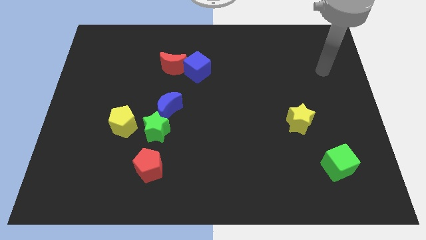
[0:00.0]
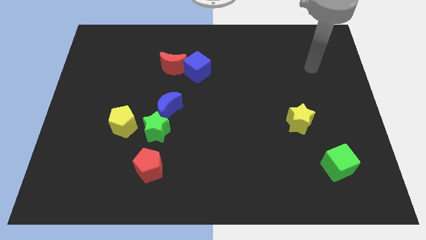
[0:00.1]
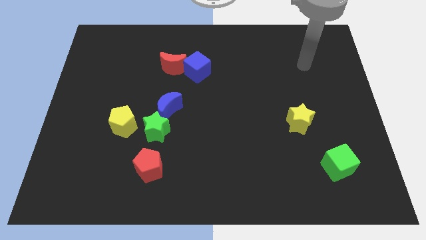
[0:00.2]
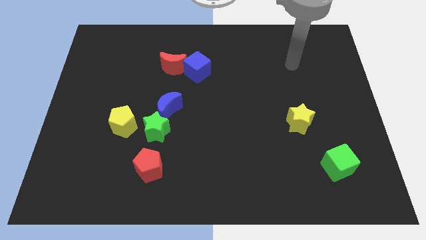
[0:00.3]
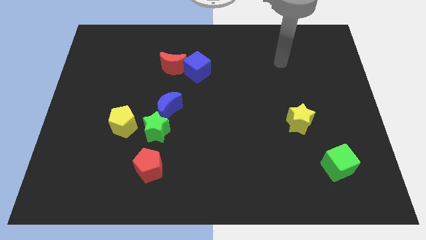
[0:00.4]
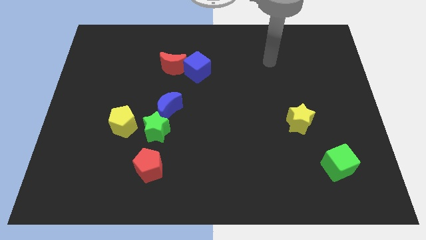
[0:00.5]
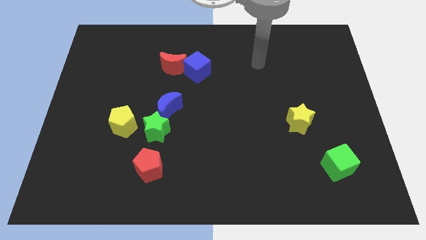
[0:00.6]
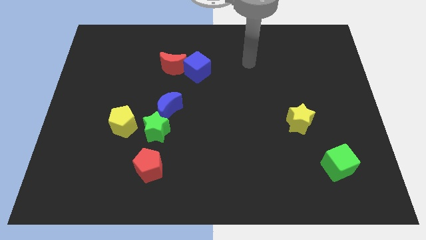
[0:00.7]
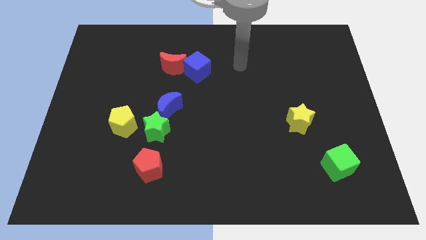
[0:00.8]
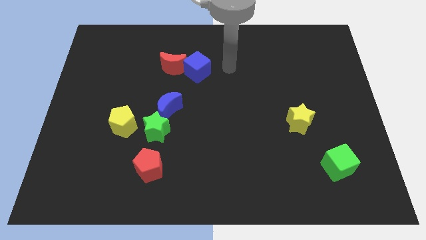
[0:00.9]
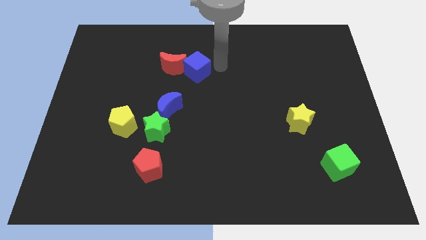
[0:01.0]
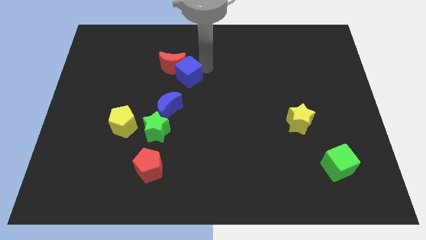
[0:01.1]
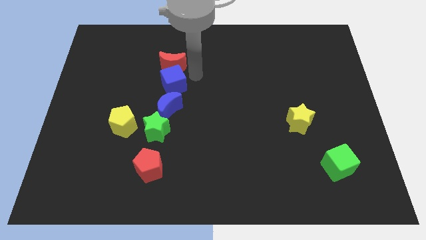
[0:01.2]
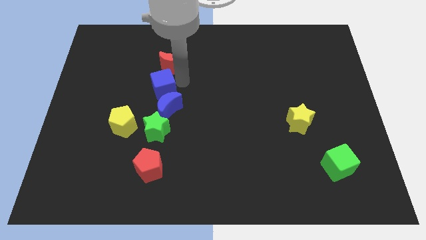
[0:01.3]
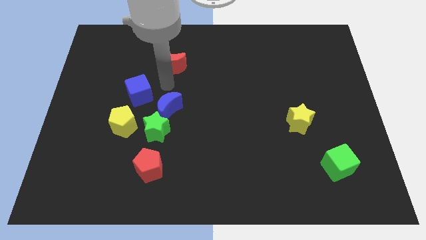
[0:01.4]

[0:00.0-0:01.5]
move the red moon away from the blue cube

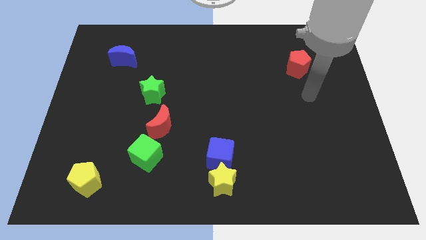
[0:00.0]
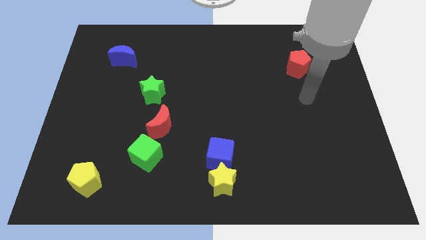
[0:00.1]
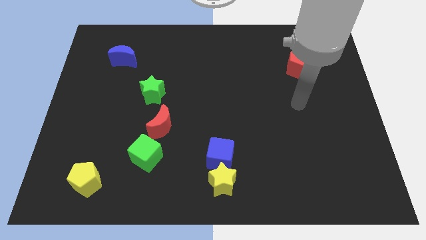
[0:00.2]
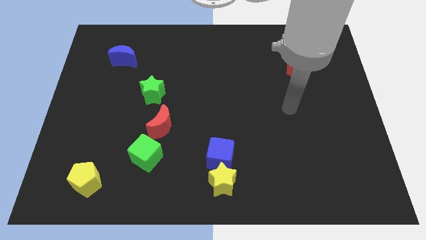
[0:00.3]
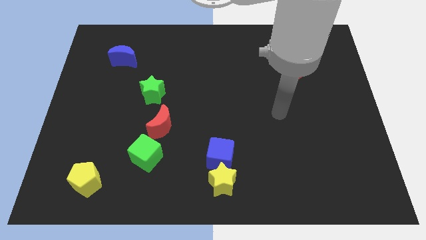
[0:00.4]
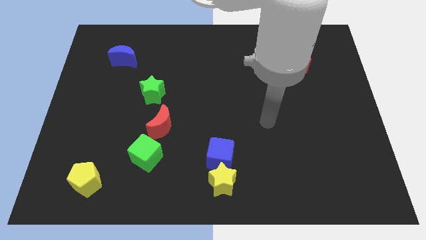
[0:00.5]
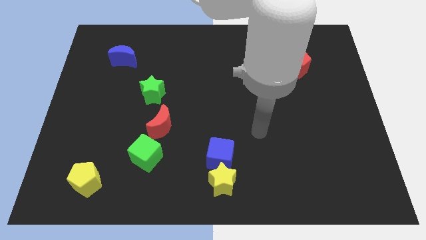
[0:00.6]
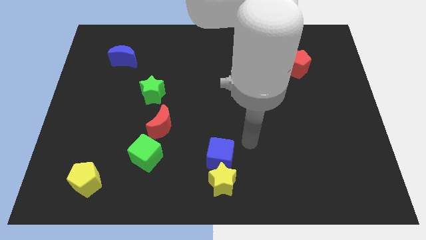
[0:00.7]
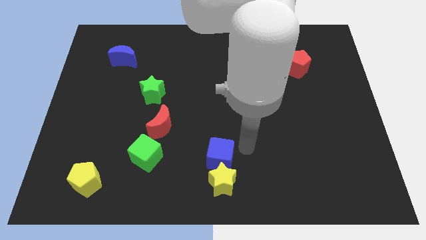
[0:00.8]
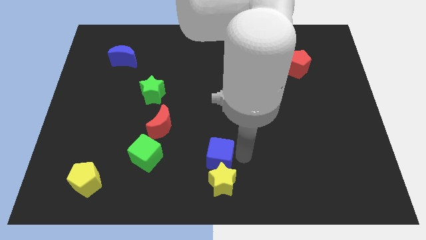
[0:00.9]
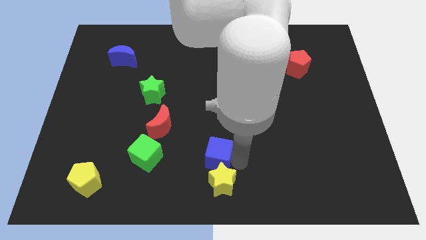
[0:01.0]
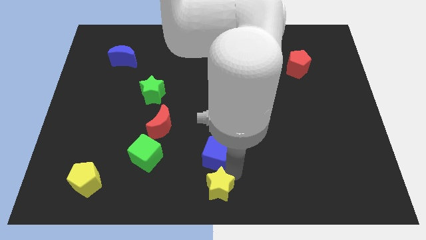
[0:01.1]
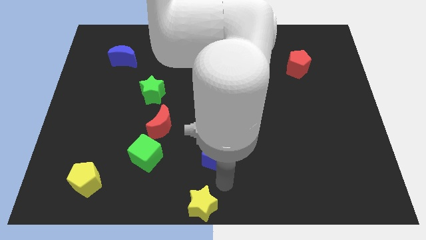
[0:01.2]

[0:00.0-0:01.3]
pull the blue cube apart from the yellow star

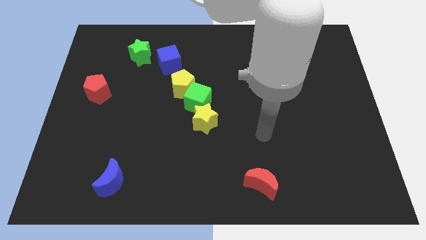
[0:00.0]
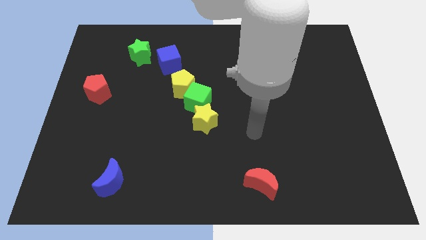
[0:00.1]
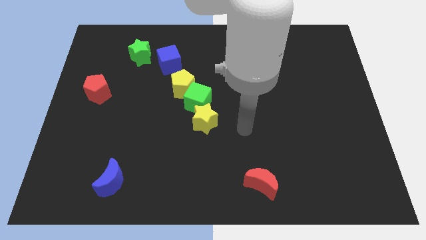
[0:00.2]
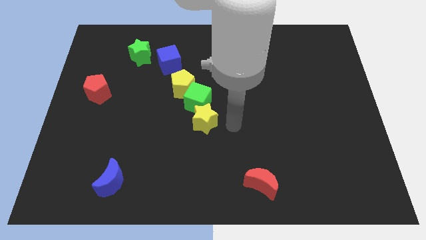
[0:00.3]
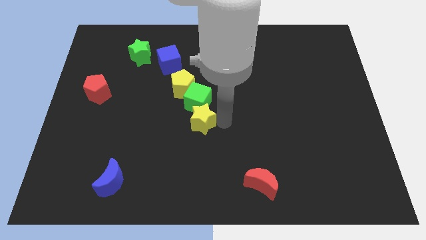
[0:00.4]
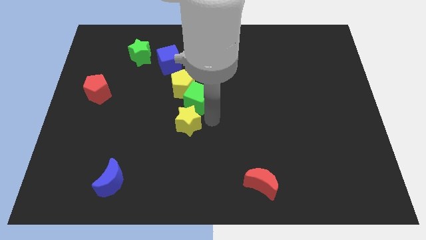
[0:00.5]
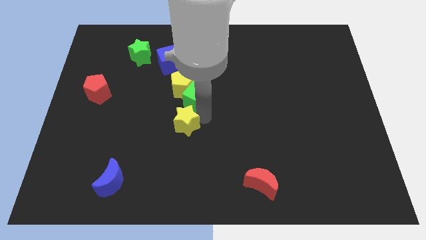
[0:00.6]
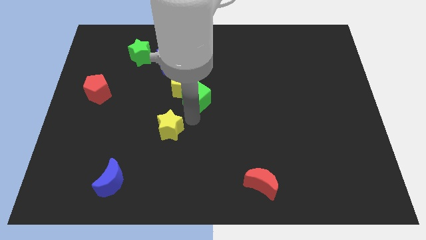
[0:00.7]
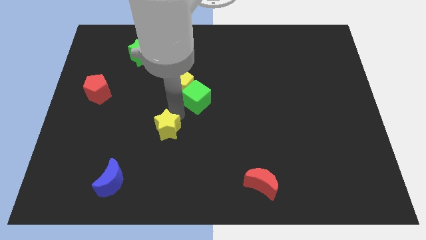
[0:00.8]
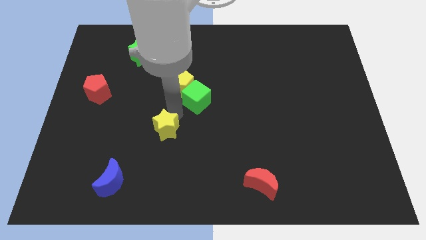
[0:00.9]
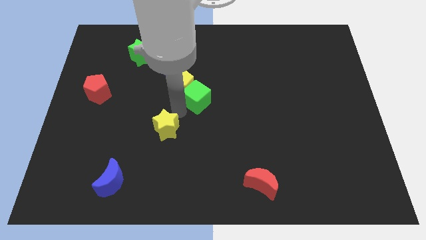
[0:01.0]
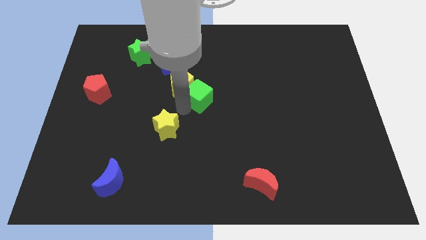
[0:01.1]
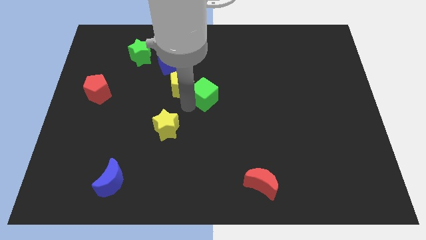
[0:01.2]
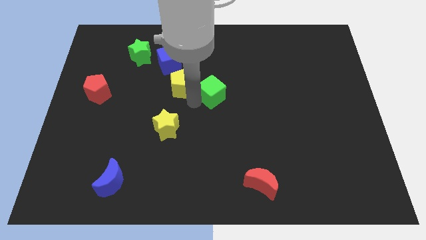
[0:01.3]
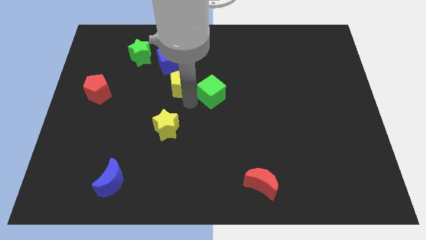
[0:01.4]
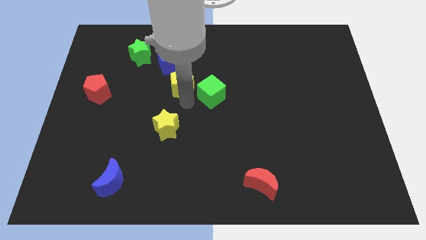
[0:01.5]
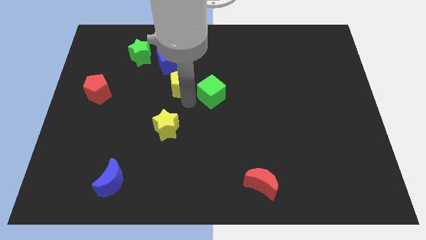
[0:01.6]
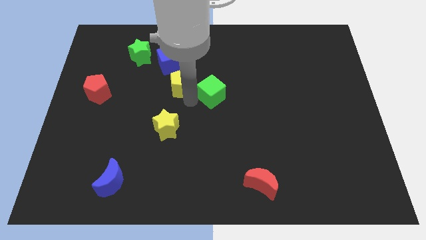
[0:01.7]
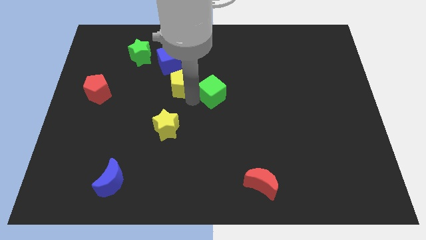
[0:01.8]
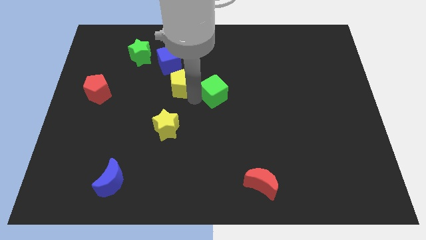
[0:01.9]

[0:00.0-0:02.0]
separate the green cube from the yellow pentagon and yellow star

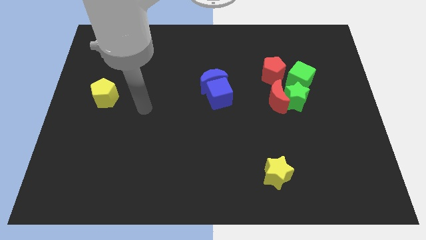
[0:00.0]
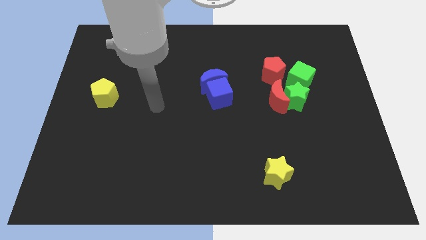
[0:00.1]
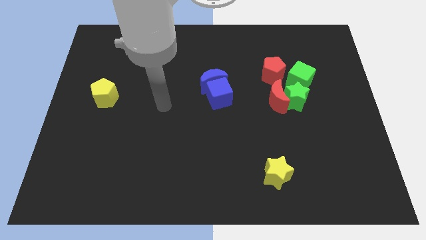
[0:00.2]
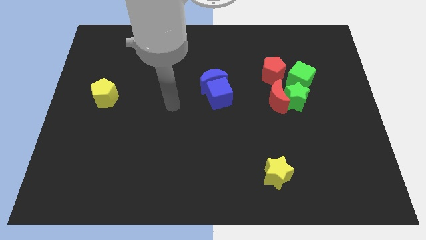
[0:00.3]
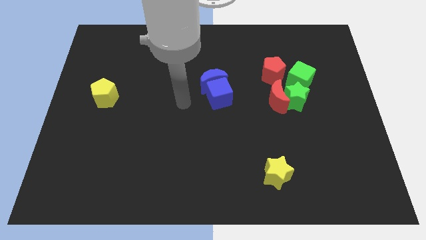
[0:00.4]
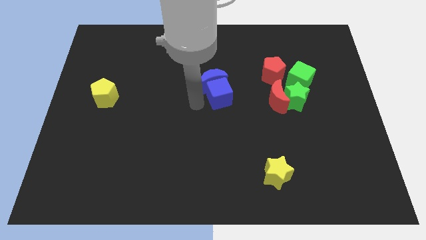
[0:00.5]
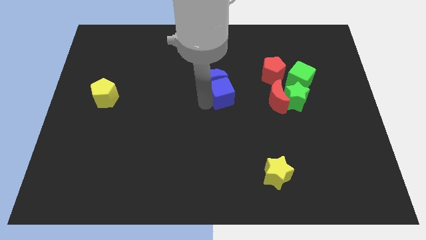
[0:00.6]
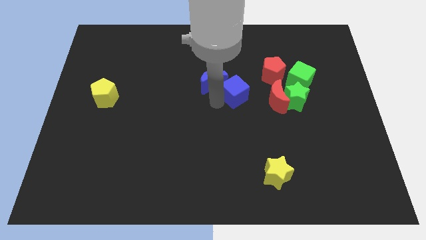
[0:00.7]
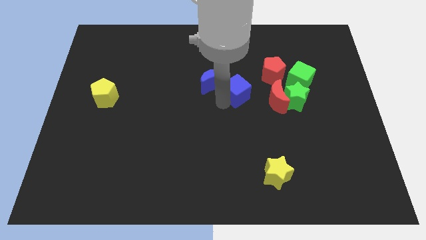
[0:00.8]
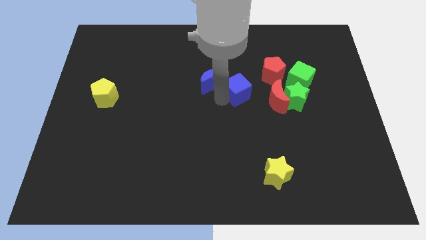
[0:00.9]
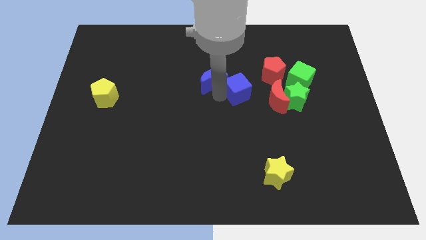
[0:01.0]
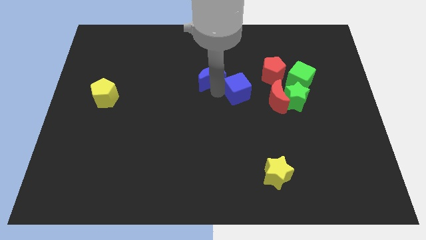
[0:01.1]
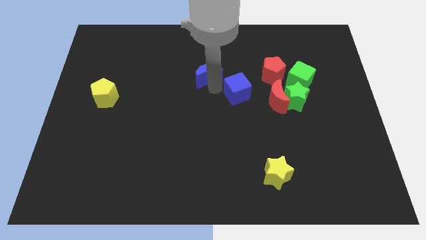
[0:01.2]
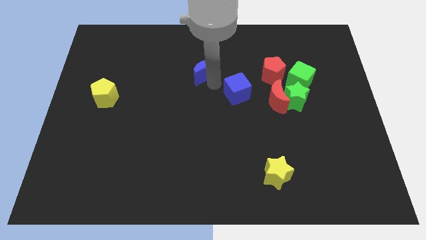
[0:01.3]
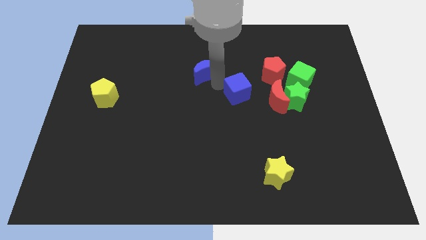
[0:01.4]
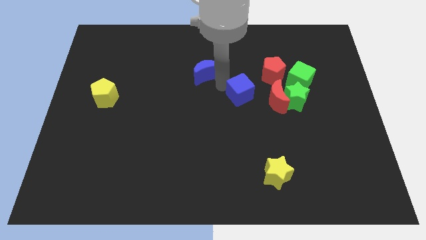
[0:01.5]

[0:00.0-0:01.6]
move the blue moon away from the blue cube

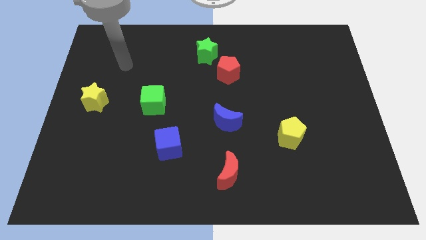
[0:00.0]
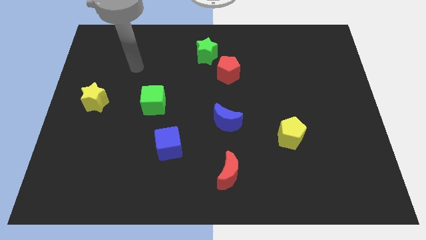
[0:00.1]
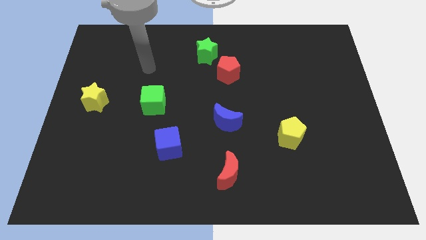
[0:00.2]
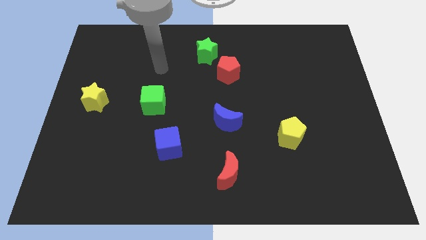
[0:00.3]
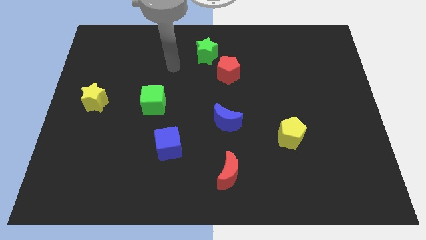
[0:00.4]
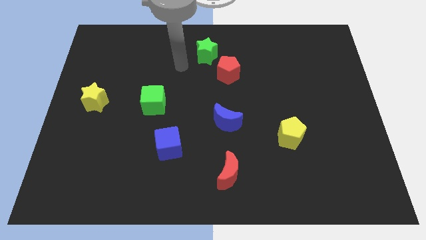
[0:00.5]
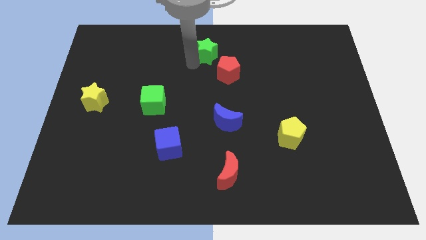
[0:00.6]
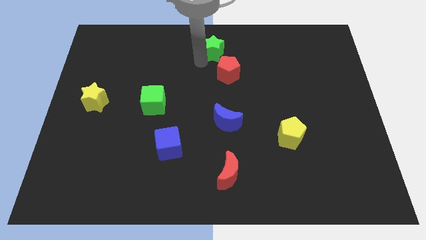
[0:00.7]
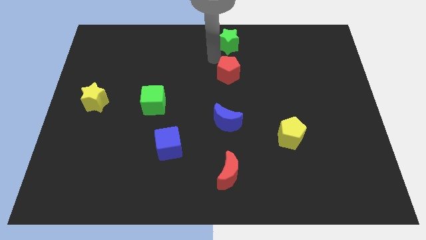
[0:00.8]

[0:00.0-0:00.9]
move the red pentagon away from the green star

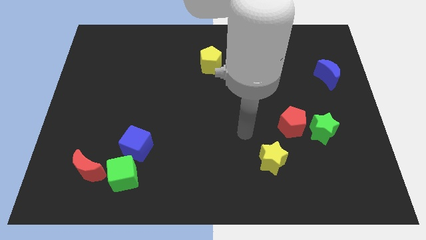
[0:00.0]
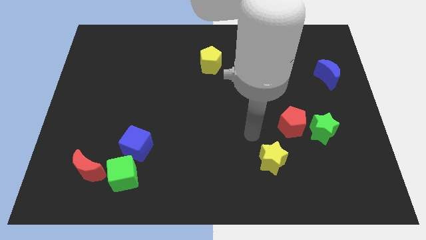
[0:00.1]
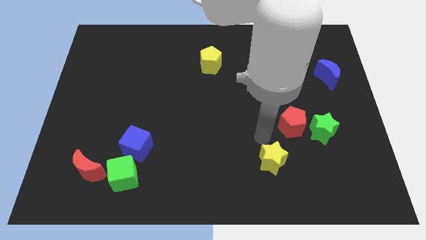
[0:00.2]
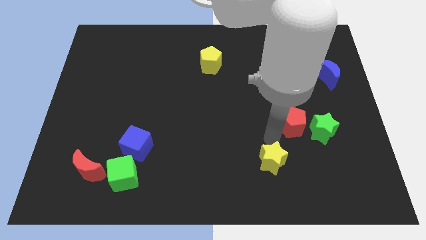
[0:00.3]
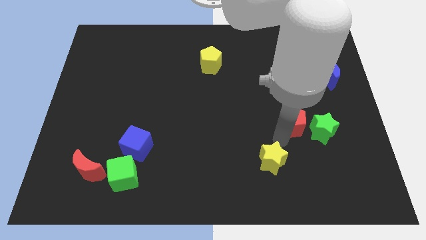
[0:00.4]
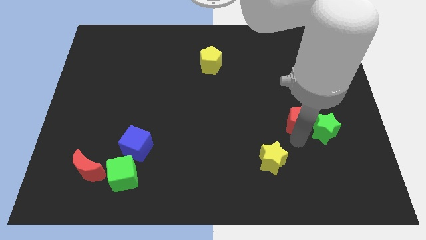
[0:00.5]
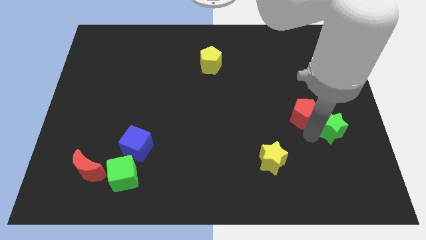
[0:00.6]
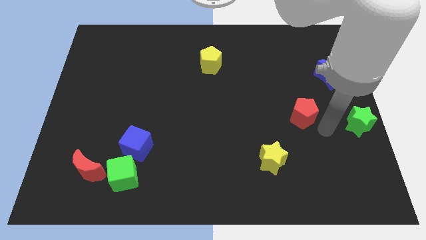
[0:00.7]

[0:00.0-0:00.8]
pull the red pentagon apart from the green star

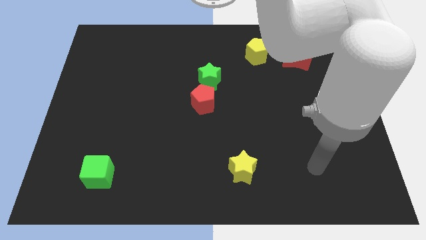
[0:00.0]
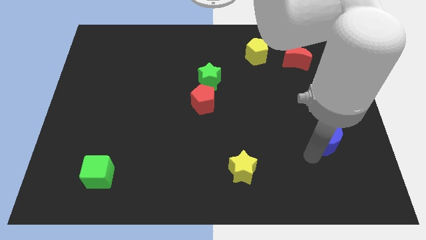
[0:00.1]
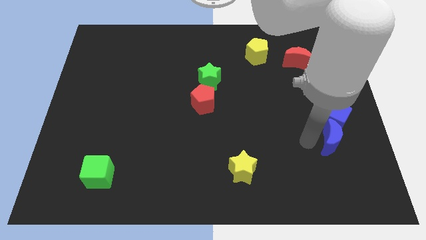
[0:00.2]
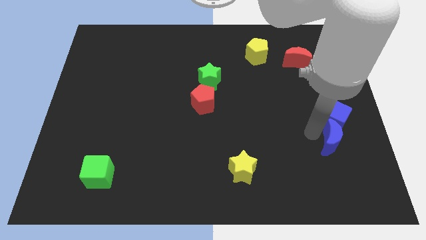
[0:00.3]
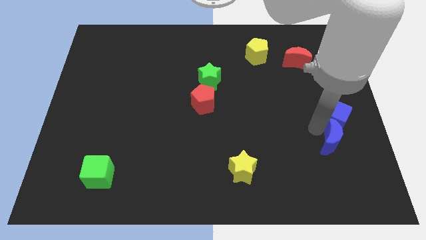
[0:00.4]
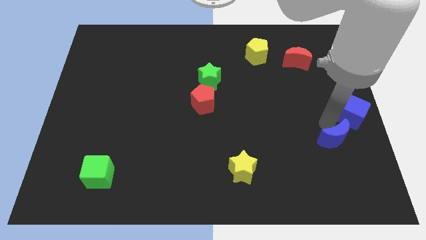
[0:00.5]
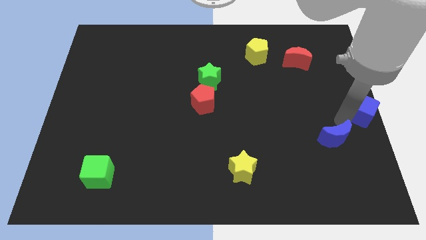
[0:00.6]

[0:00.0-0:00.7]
pull the blue moon apart from the blue cube

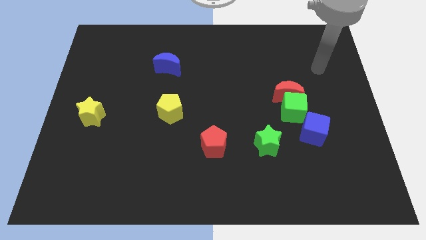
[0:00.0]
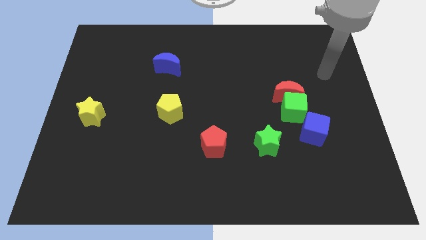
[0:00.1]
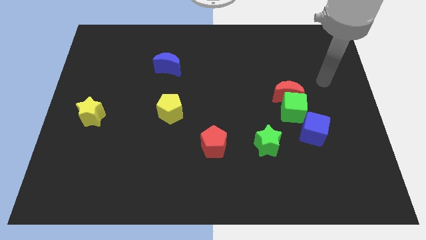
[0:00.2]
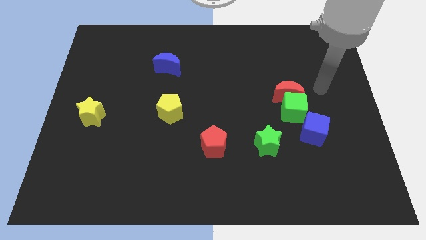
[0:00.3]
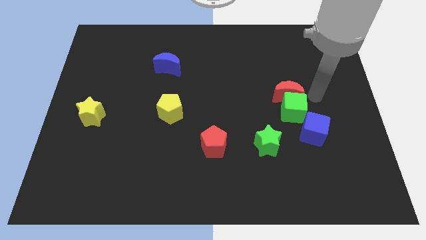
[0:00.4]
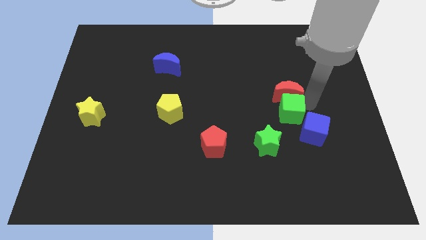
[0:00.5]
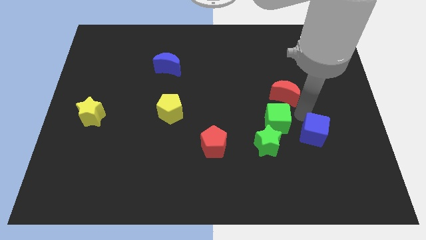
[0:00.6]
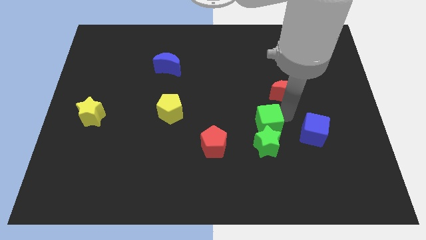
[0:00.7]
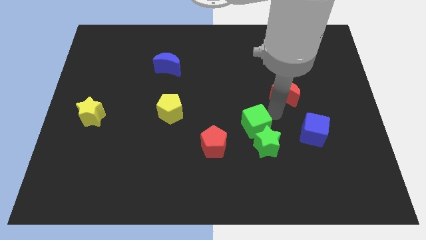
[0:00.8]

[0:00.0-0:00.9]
move the red moon away from the green cube
